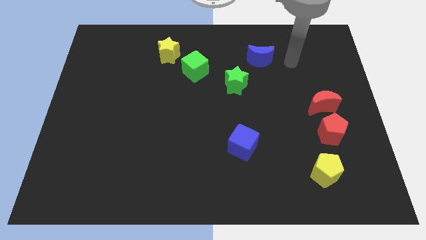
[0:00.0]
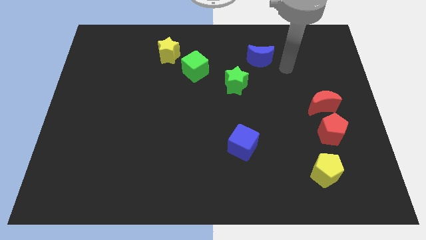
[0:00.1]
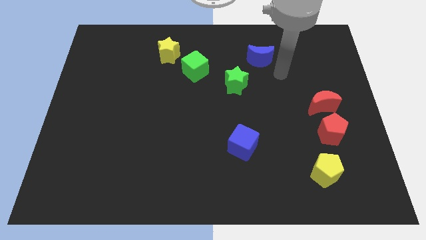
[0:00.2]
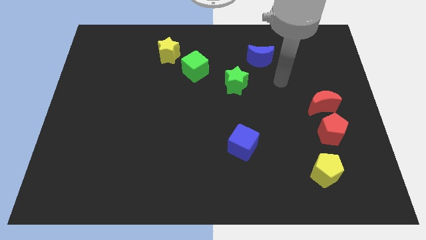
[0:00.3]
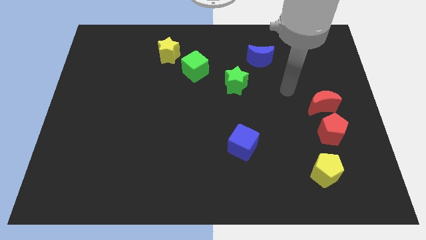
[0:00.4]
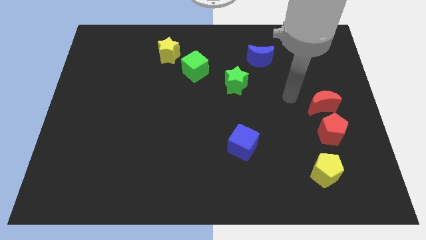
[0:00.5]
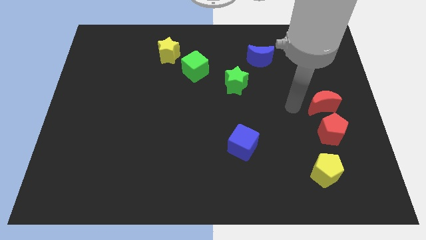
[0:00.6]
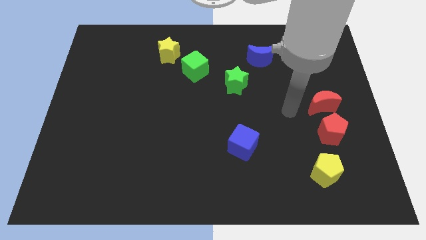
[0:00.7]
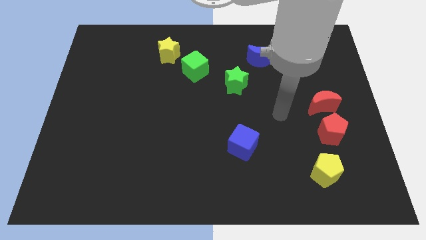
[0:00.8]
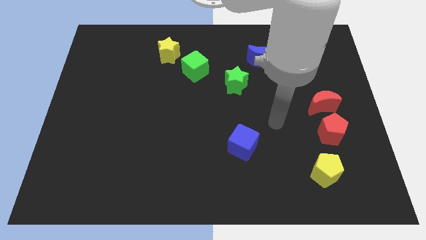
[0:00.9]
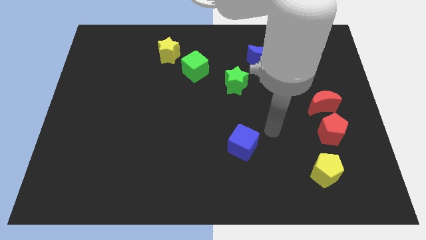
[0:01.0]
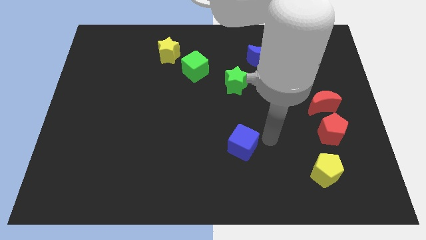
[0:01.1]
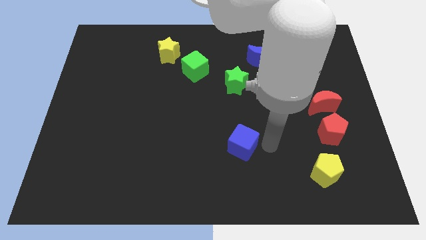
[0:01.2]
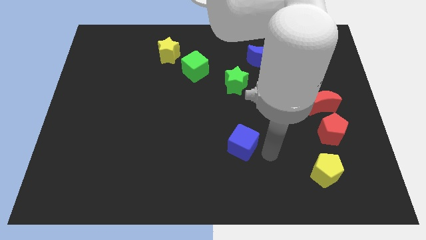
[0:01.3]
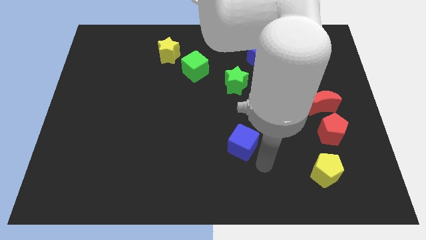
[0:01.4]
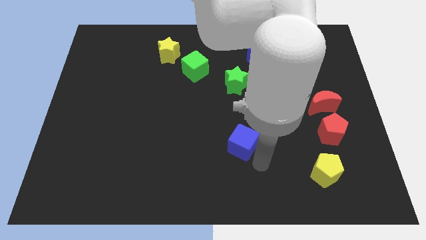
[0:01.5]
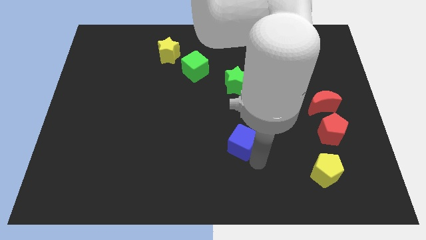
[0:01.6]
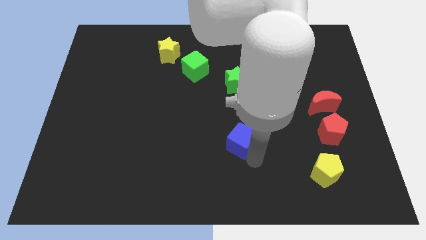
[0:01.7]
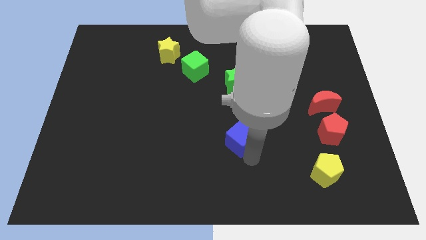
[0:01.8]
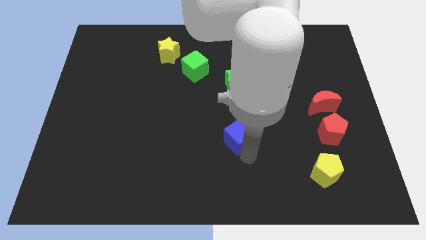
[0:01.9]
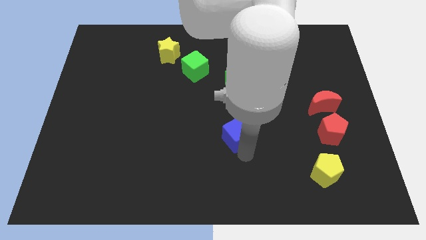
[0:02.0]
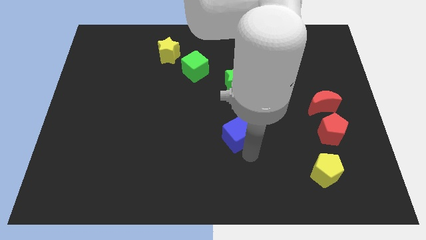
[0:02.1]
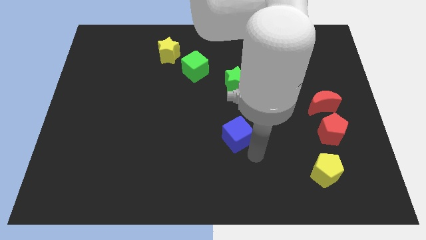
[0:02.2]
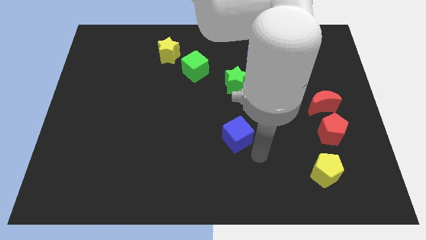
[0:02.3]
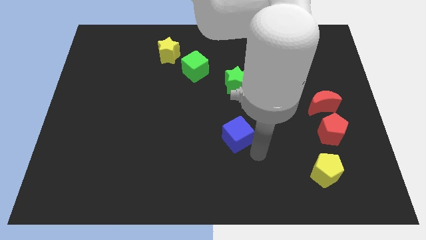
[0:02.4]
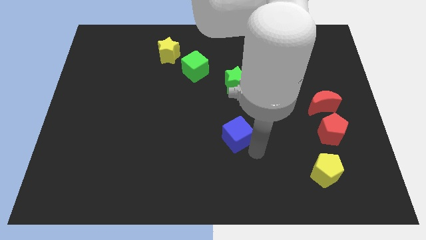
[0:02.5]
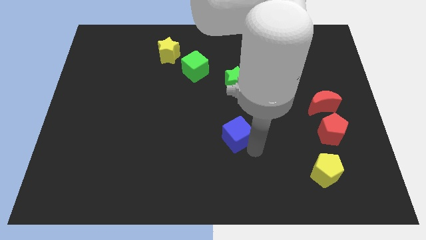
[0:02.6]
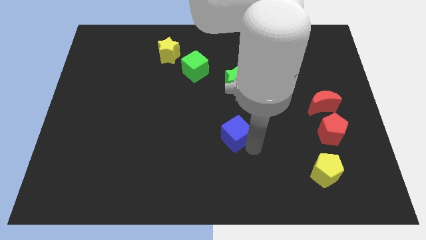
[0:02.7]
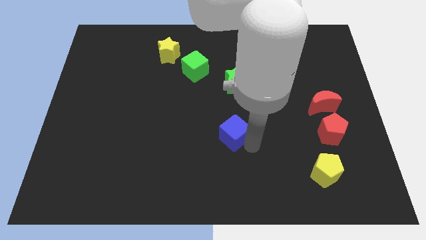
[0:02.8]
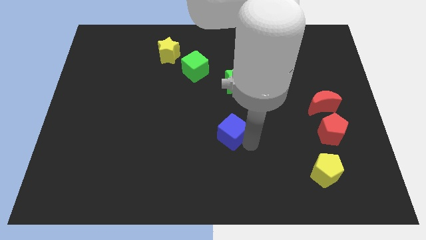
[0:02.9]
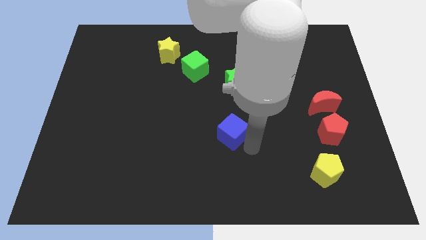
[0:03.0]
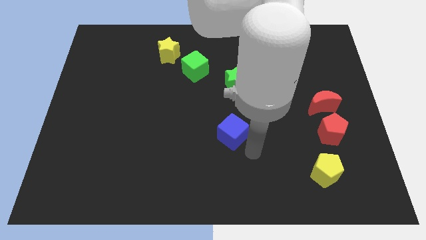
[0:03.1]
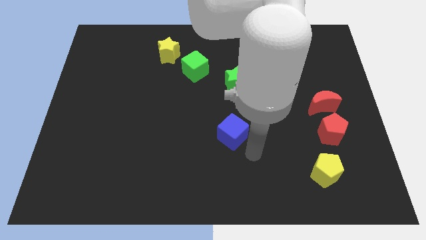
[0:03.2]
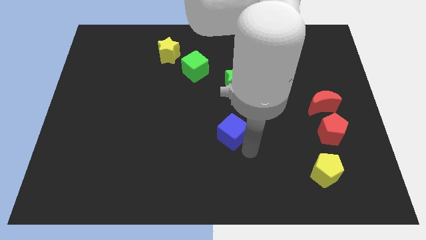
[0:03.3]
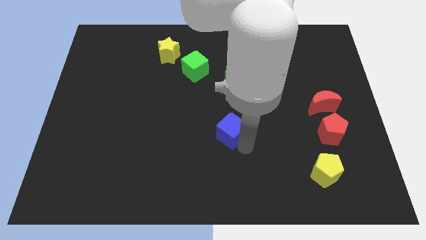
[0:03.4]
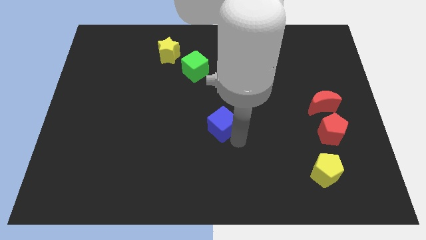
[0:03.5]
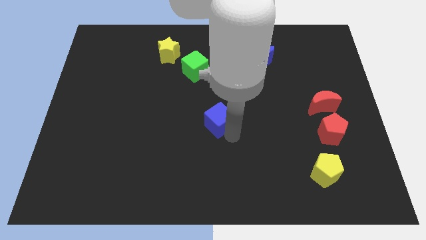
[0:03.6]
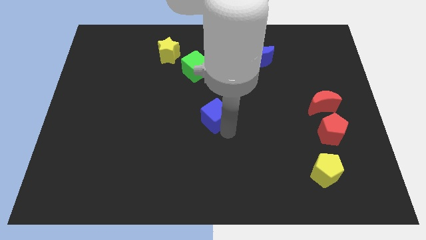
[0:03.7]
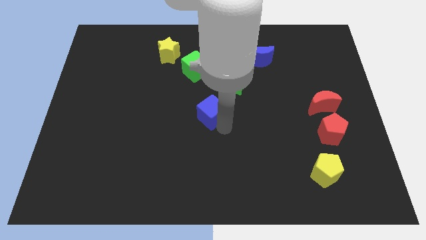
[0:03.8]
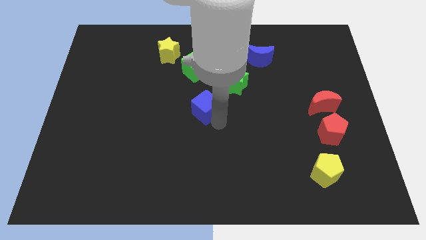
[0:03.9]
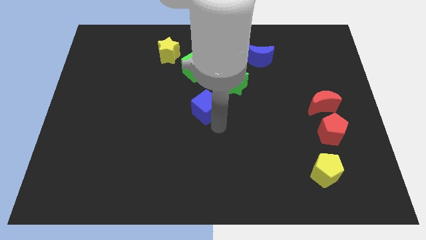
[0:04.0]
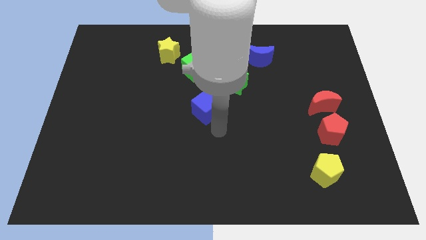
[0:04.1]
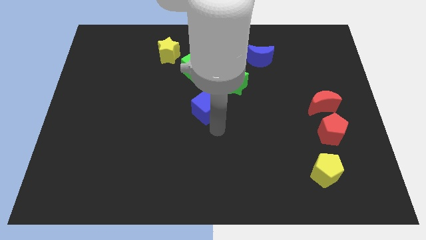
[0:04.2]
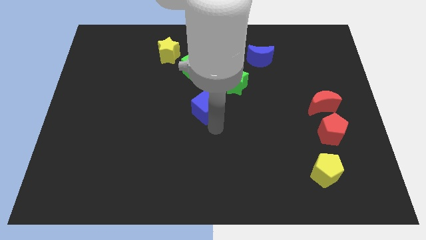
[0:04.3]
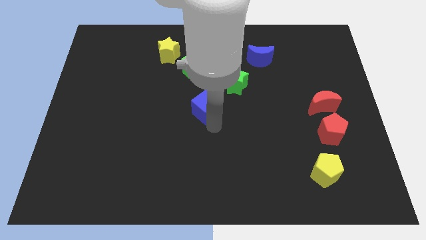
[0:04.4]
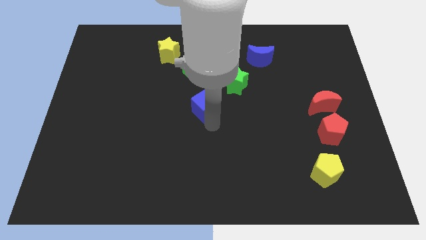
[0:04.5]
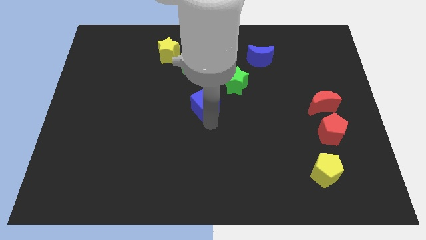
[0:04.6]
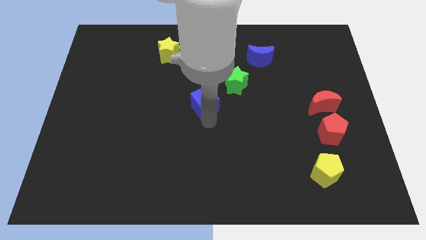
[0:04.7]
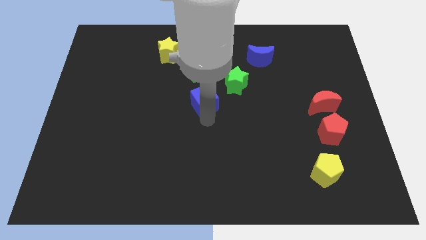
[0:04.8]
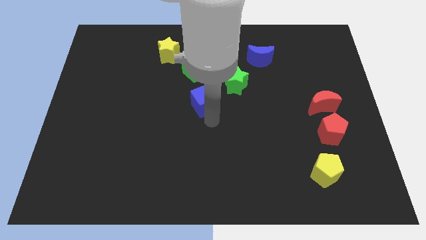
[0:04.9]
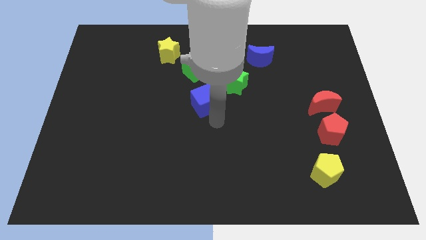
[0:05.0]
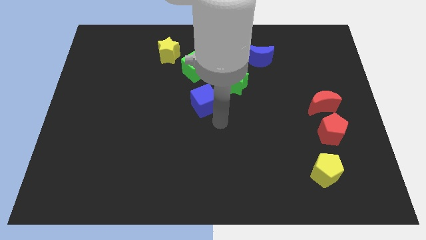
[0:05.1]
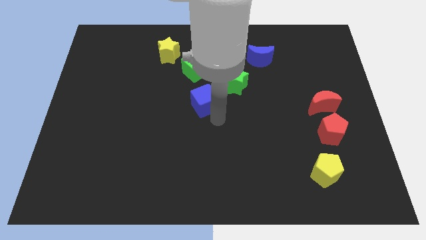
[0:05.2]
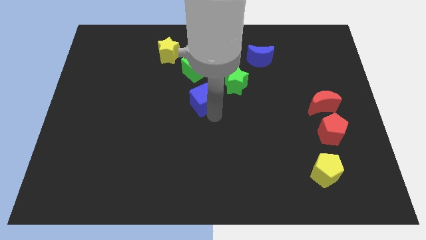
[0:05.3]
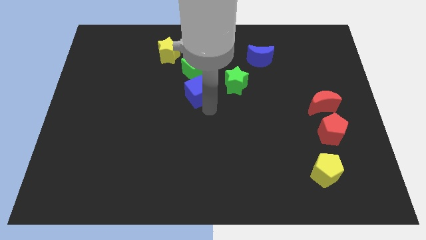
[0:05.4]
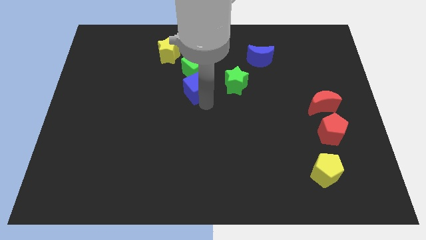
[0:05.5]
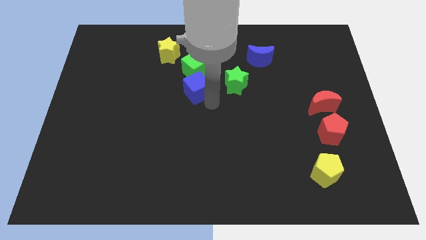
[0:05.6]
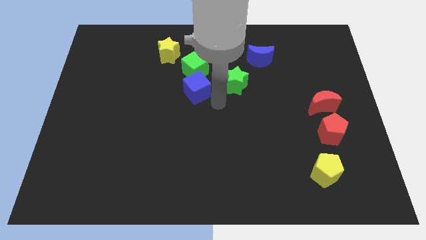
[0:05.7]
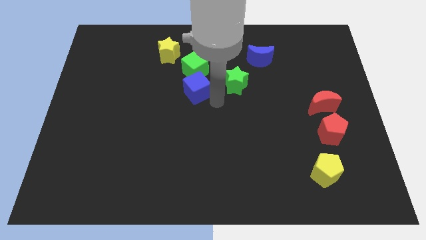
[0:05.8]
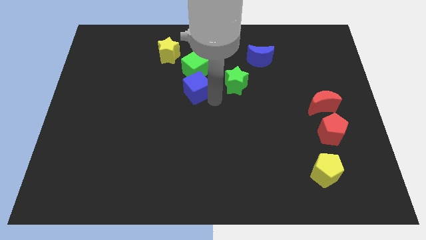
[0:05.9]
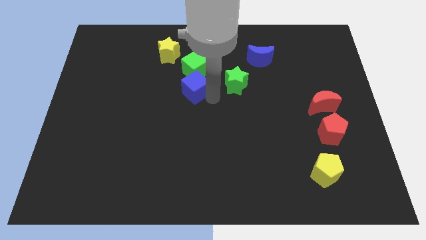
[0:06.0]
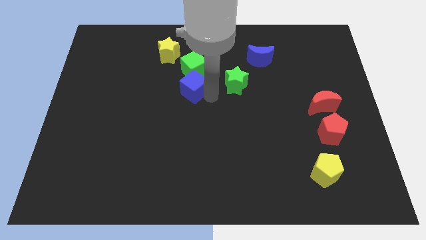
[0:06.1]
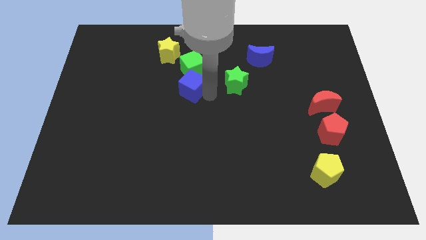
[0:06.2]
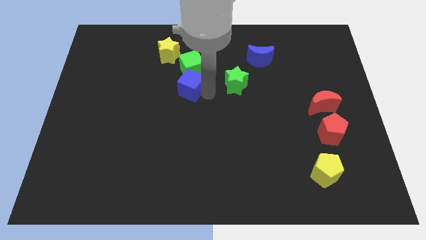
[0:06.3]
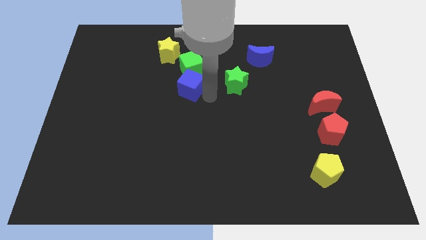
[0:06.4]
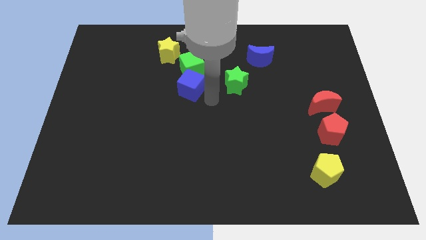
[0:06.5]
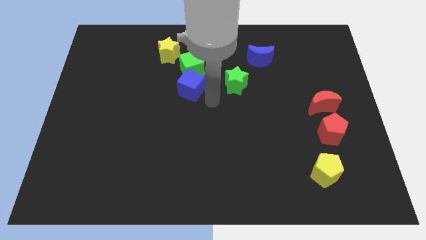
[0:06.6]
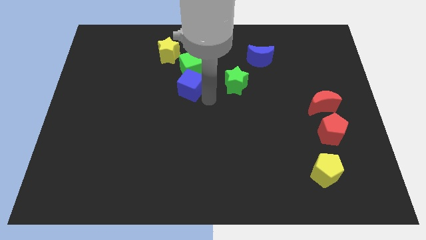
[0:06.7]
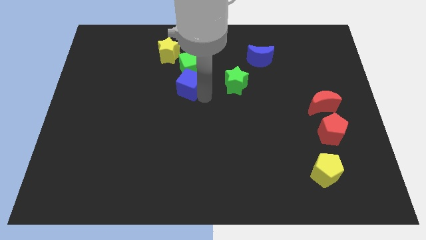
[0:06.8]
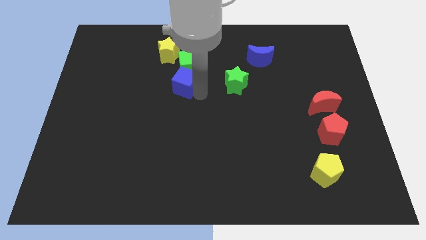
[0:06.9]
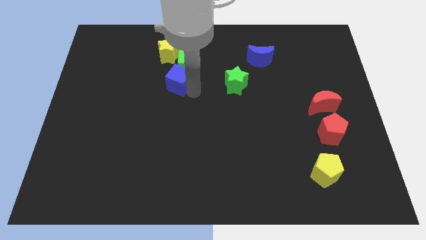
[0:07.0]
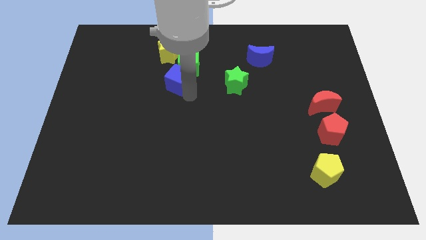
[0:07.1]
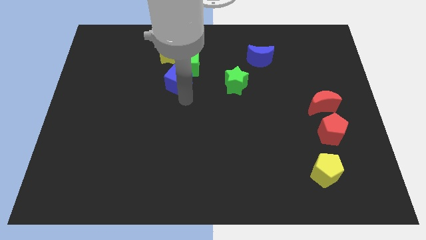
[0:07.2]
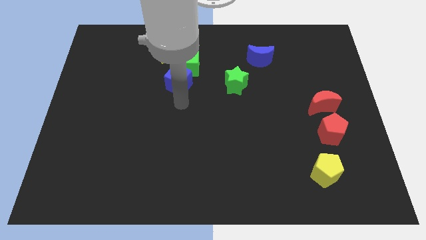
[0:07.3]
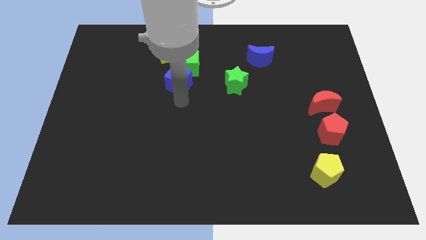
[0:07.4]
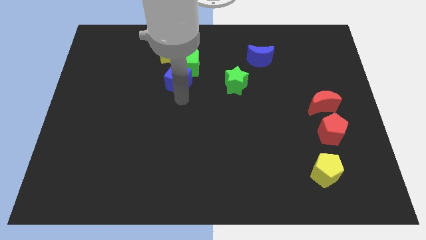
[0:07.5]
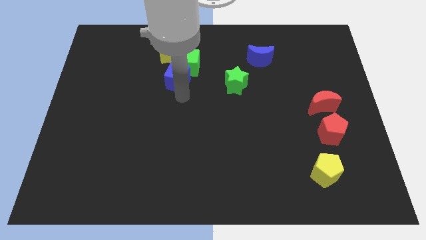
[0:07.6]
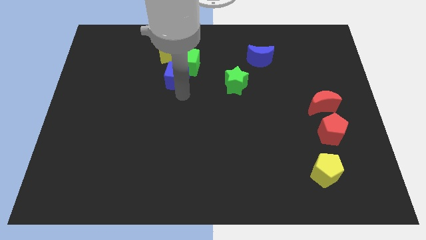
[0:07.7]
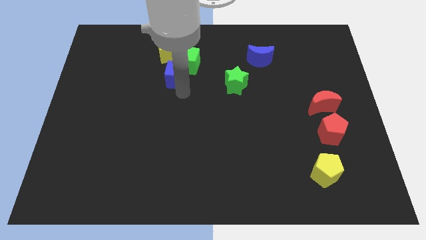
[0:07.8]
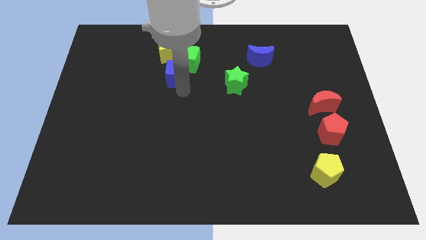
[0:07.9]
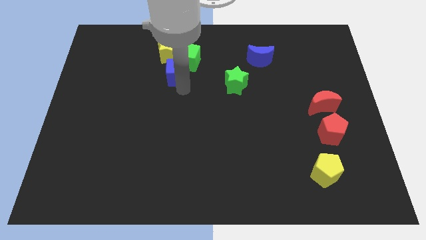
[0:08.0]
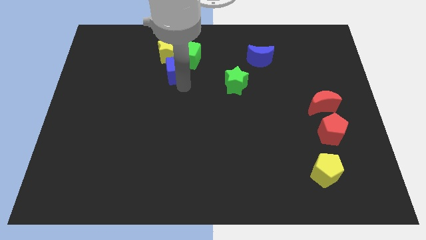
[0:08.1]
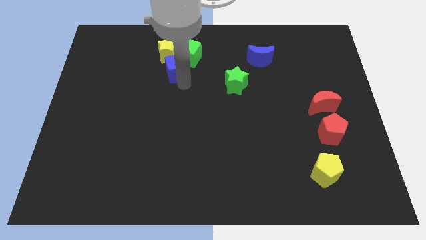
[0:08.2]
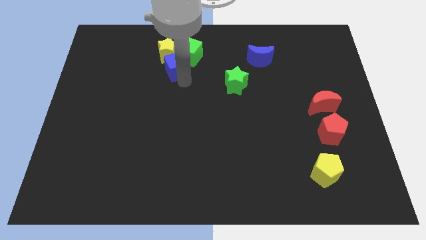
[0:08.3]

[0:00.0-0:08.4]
move the blue cube to the yellow star
